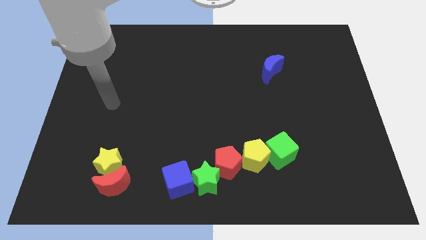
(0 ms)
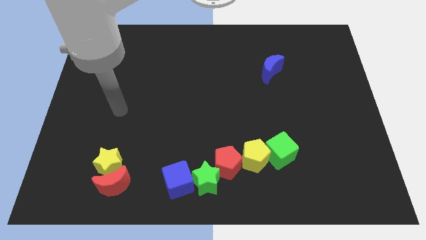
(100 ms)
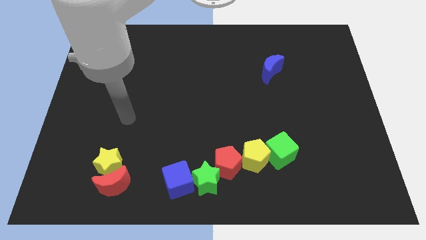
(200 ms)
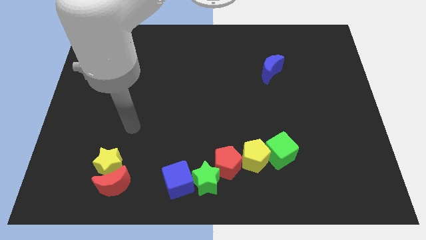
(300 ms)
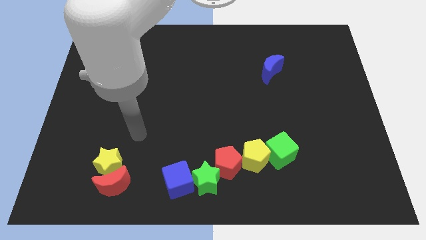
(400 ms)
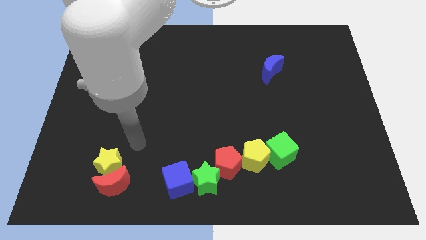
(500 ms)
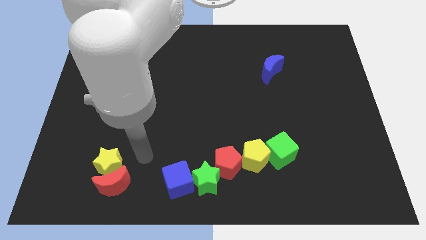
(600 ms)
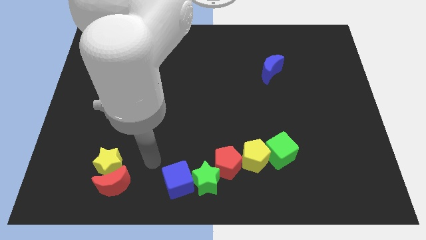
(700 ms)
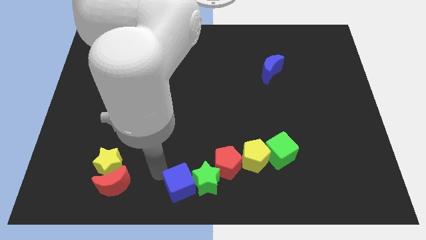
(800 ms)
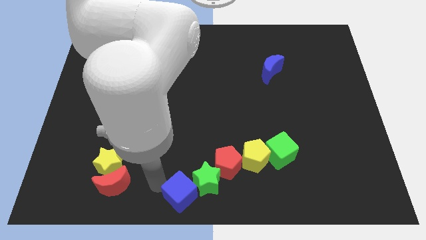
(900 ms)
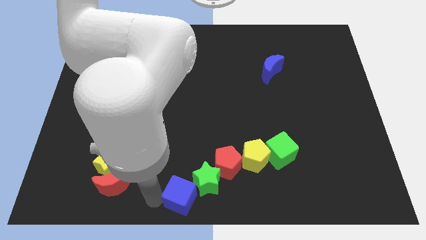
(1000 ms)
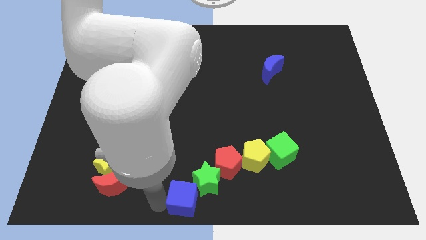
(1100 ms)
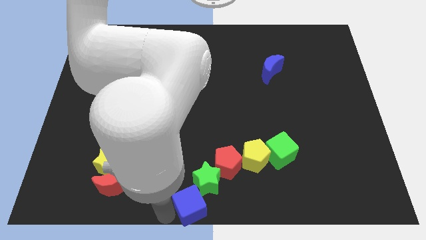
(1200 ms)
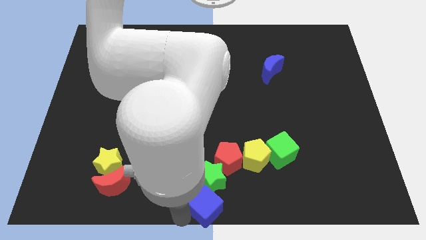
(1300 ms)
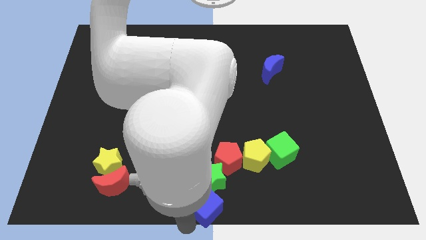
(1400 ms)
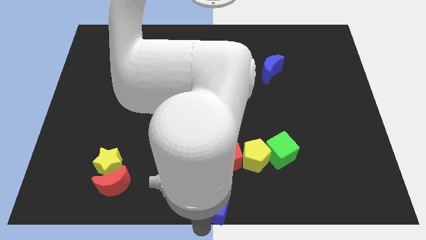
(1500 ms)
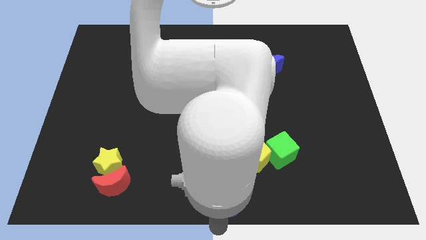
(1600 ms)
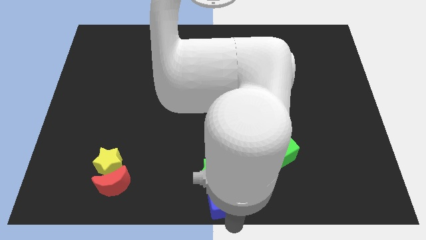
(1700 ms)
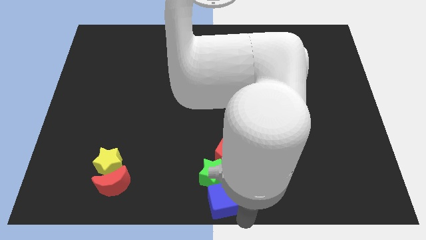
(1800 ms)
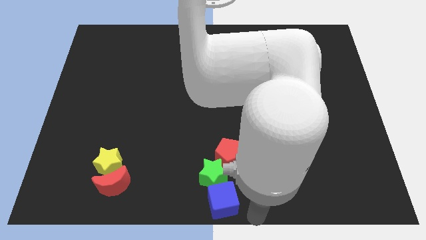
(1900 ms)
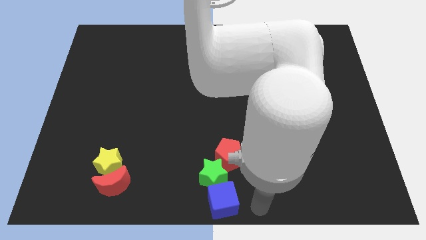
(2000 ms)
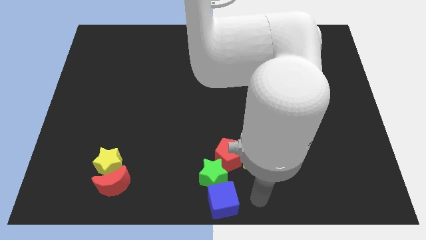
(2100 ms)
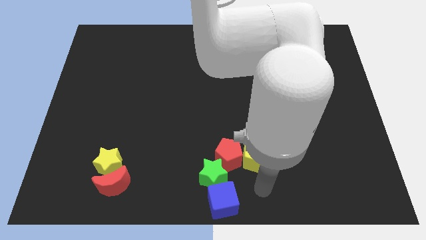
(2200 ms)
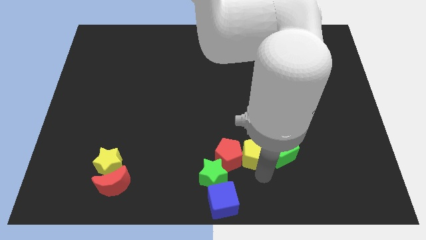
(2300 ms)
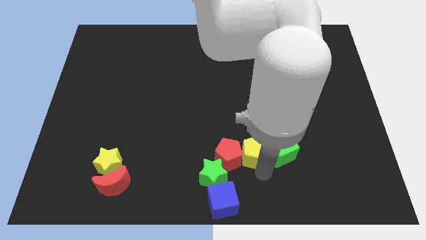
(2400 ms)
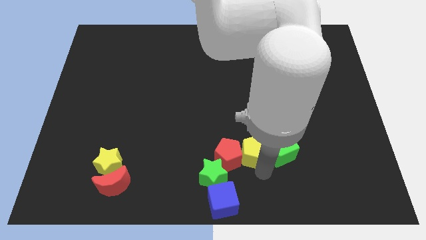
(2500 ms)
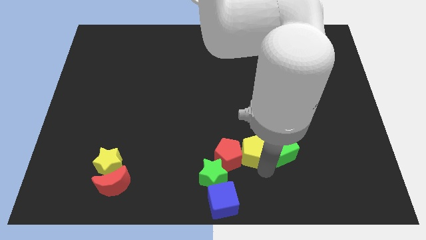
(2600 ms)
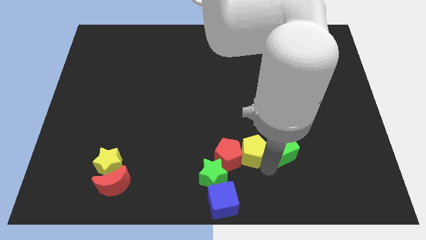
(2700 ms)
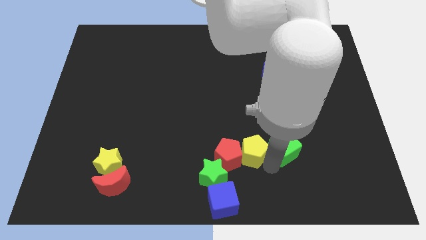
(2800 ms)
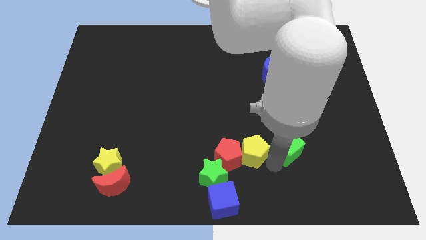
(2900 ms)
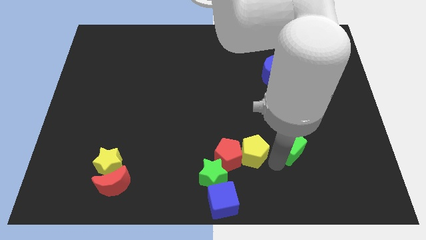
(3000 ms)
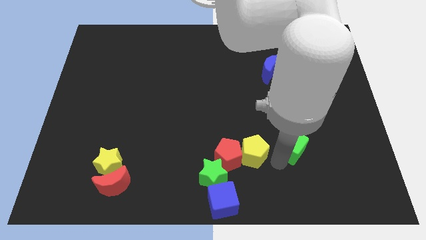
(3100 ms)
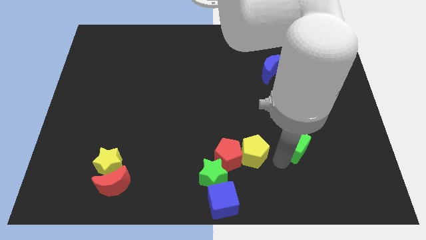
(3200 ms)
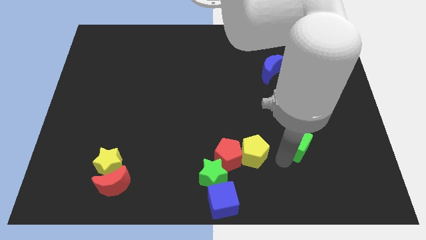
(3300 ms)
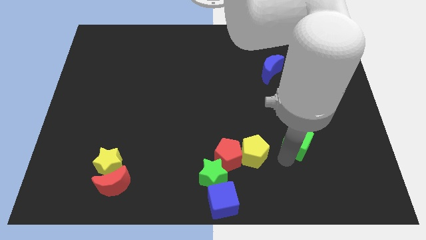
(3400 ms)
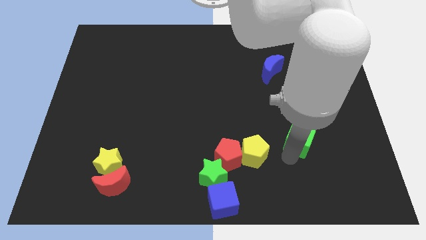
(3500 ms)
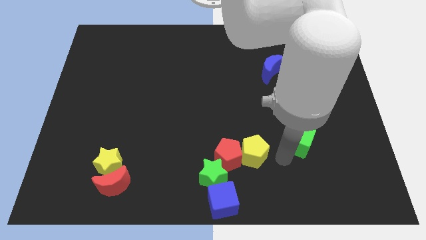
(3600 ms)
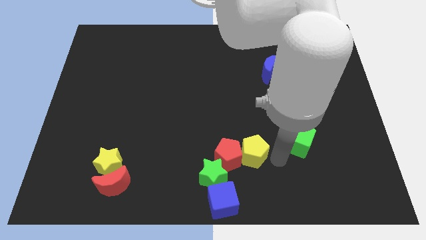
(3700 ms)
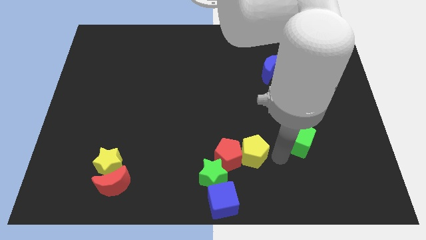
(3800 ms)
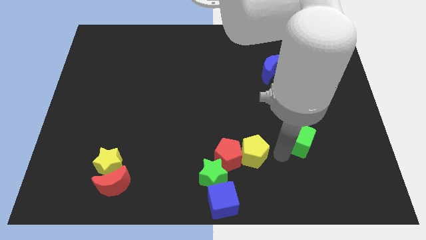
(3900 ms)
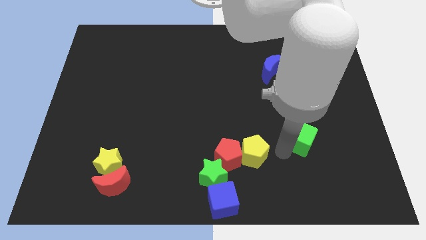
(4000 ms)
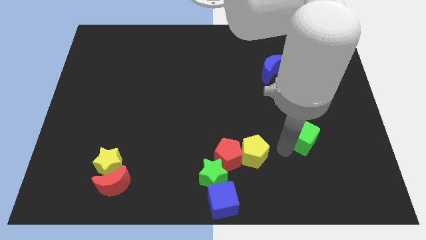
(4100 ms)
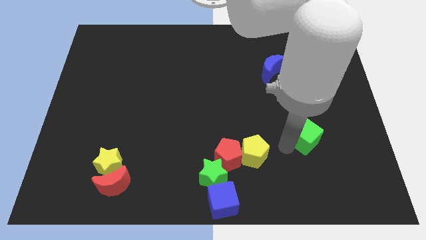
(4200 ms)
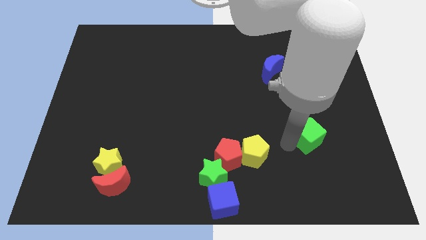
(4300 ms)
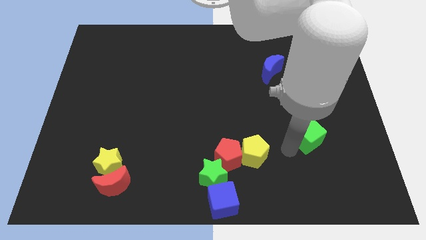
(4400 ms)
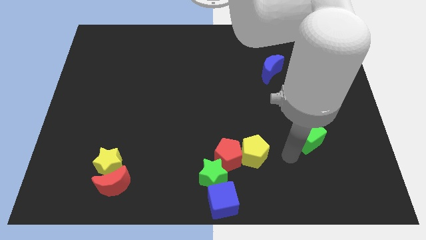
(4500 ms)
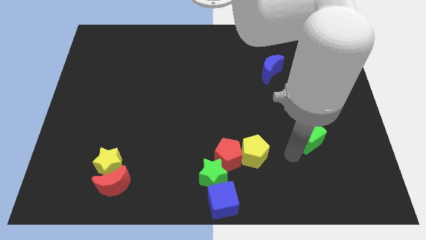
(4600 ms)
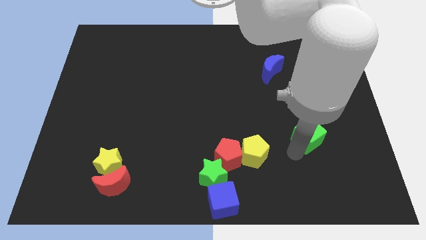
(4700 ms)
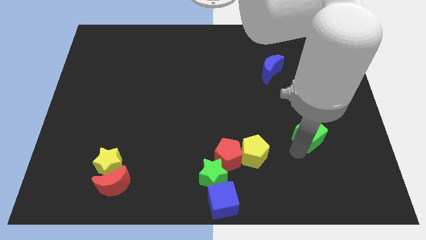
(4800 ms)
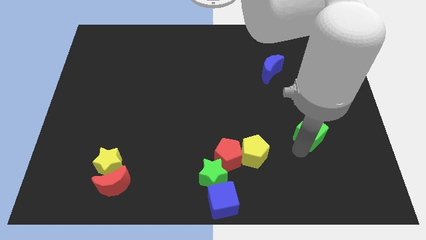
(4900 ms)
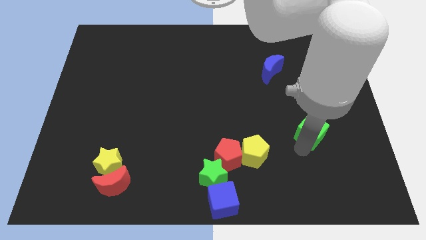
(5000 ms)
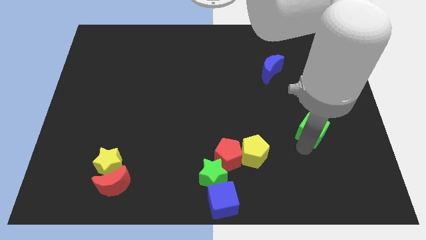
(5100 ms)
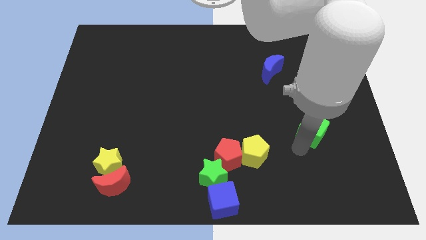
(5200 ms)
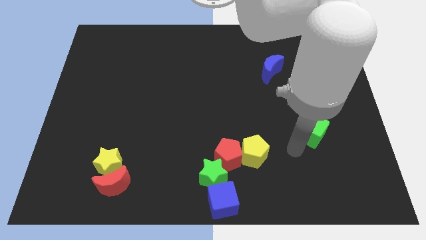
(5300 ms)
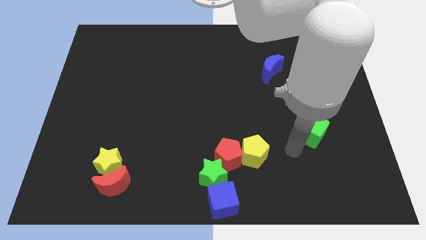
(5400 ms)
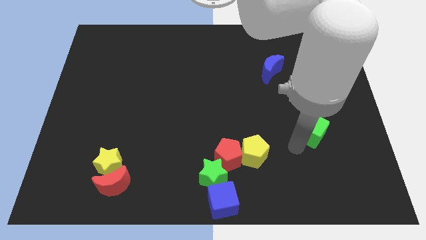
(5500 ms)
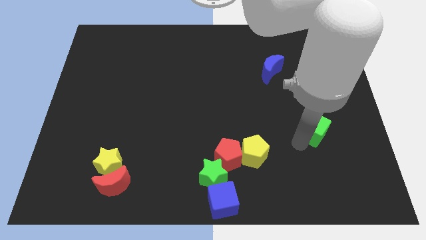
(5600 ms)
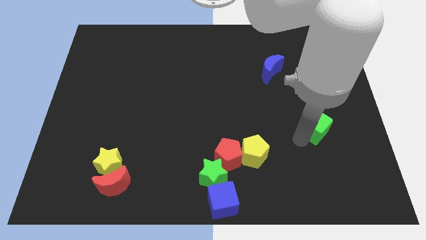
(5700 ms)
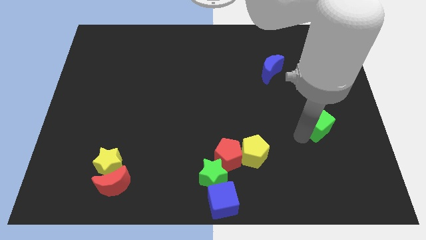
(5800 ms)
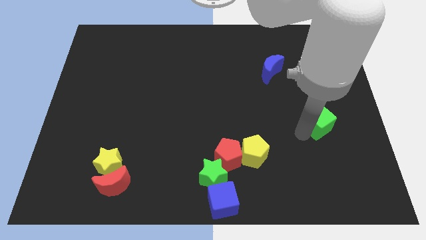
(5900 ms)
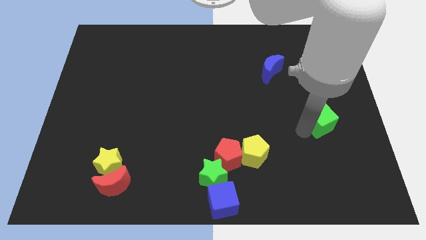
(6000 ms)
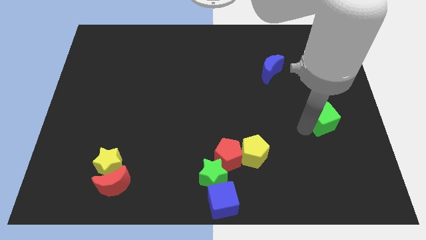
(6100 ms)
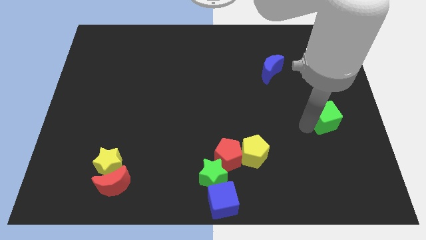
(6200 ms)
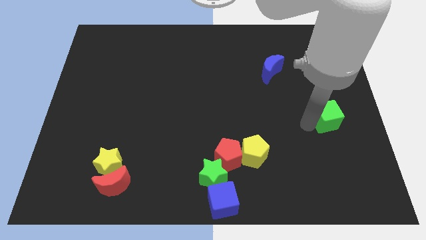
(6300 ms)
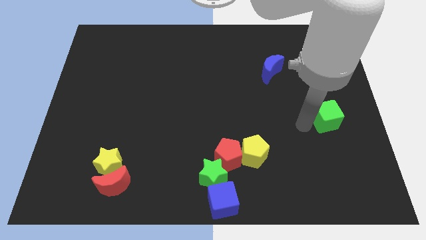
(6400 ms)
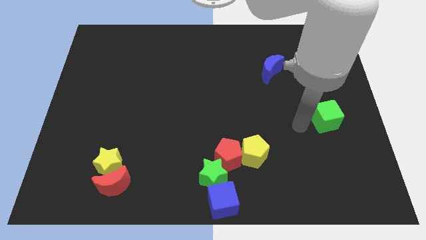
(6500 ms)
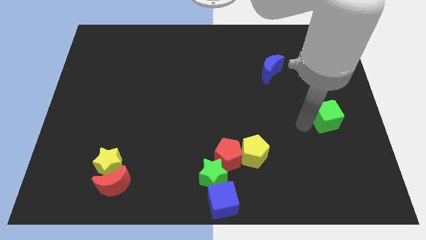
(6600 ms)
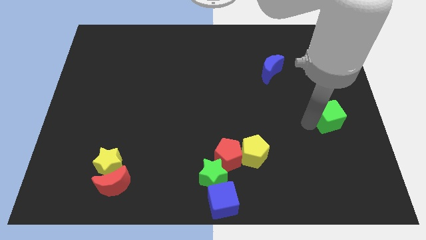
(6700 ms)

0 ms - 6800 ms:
push the green cube to the center right
